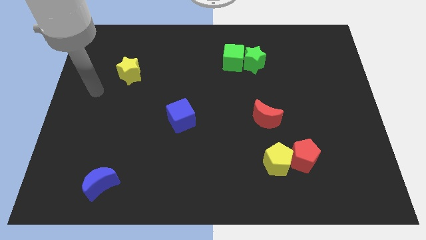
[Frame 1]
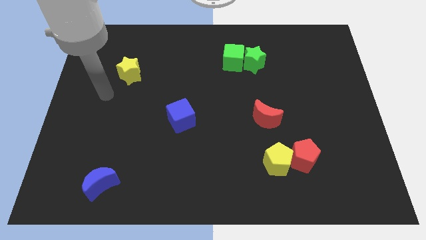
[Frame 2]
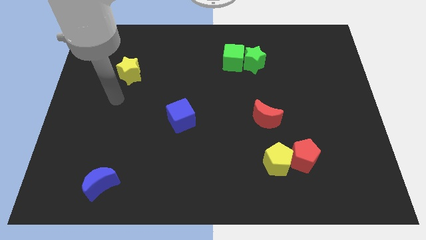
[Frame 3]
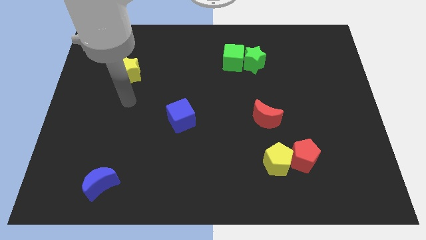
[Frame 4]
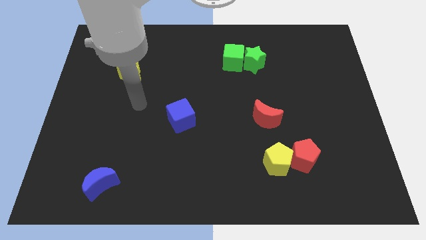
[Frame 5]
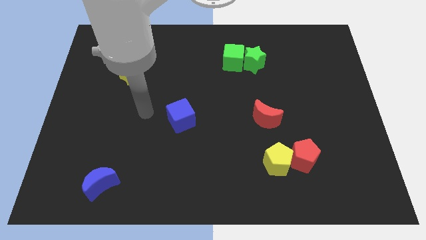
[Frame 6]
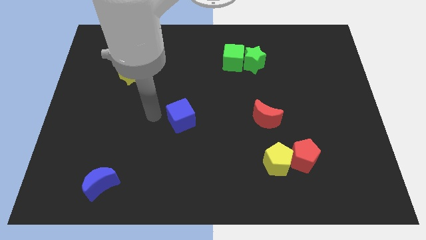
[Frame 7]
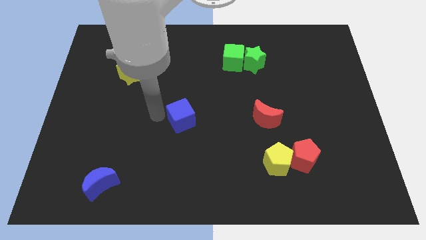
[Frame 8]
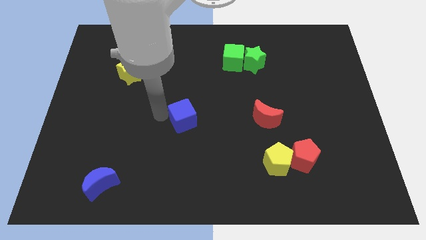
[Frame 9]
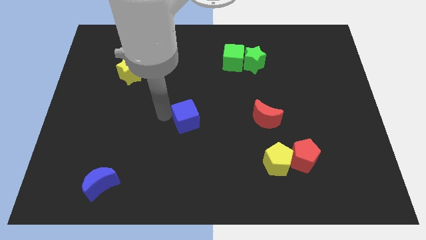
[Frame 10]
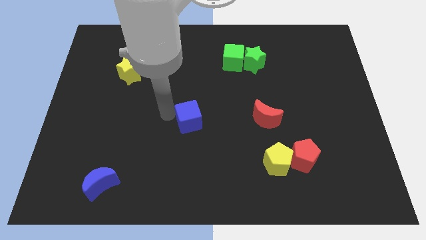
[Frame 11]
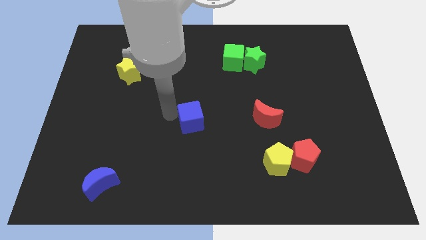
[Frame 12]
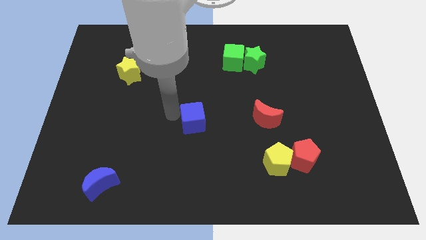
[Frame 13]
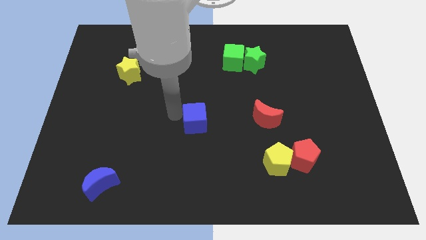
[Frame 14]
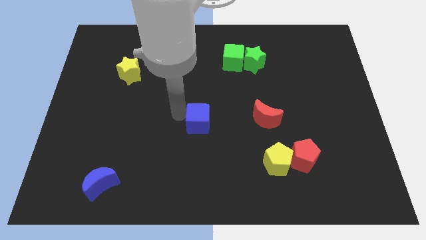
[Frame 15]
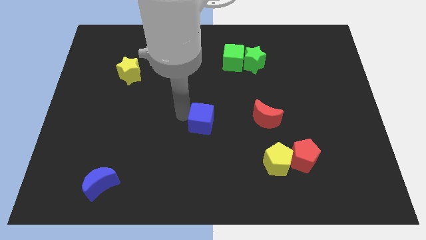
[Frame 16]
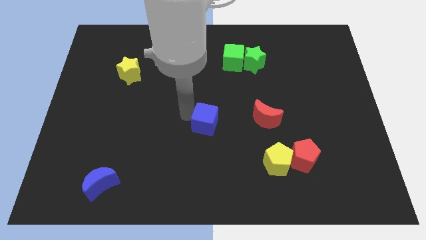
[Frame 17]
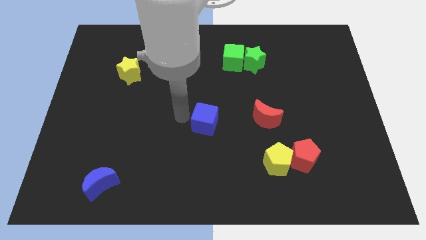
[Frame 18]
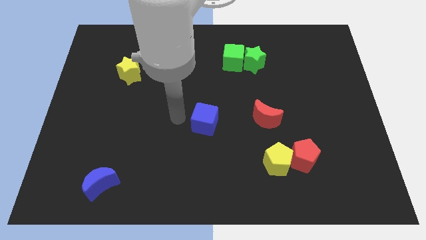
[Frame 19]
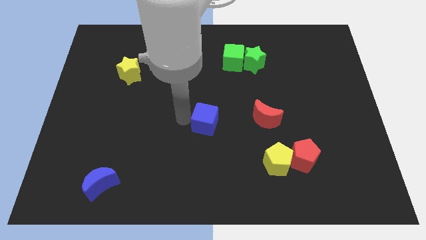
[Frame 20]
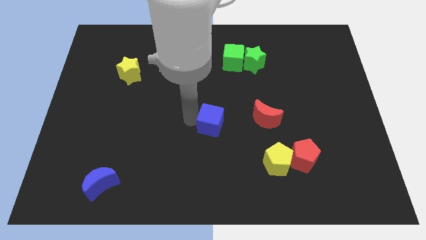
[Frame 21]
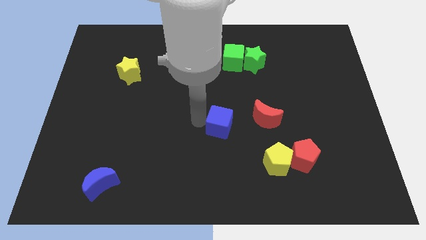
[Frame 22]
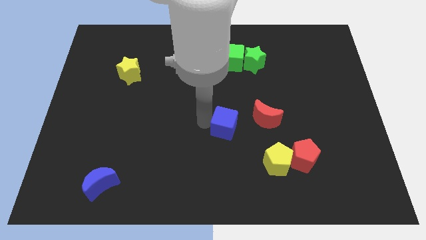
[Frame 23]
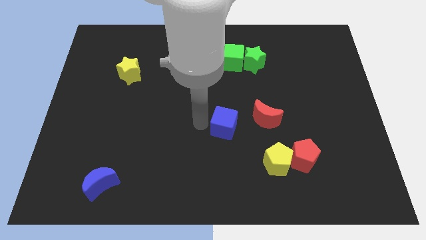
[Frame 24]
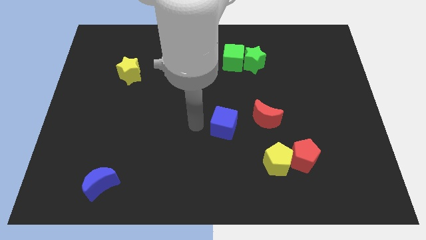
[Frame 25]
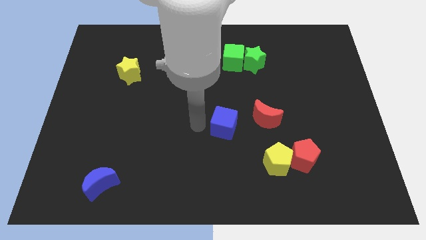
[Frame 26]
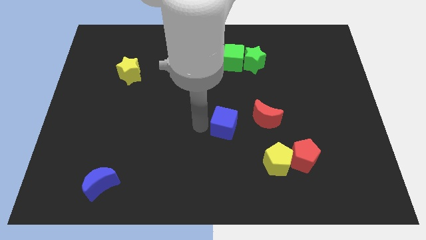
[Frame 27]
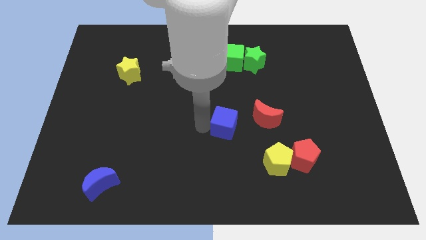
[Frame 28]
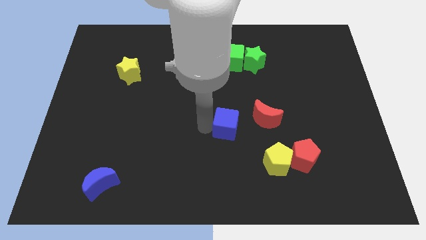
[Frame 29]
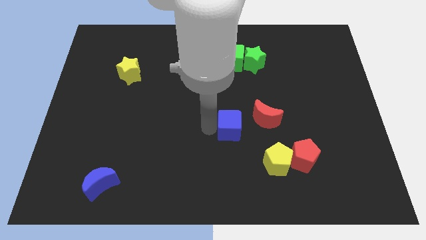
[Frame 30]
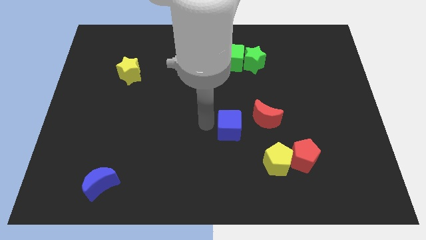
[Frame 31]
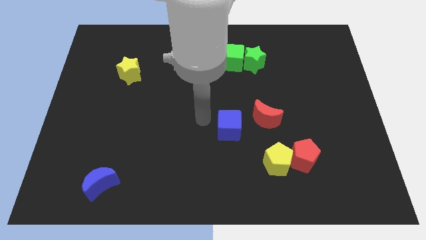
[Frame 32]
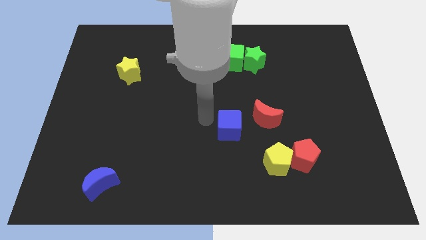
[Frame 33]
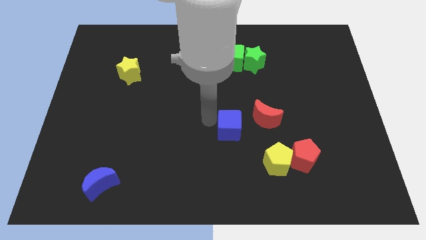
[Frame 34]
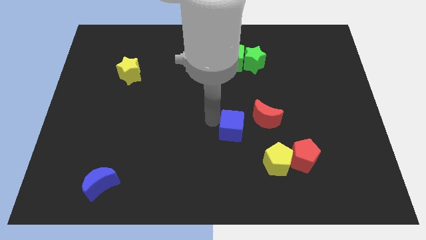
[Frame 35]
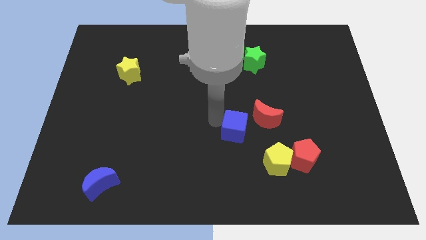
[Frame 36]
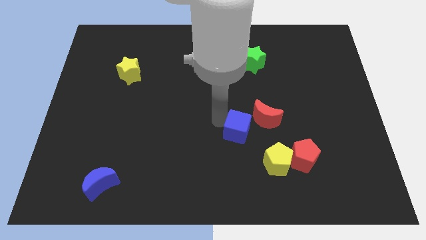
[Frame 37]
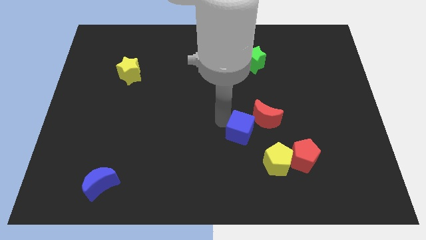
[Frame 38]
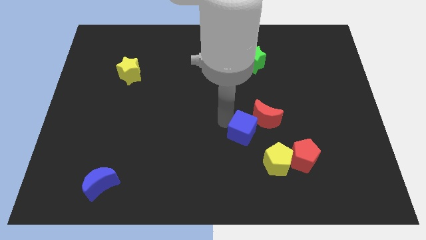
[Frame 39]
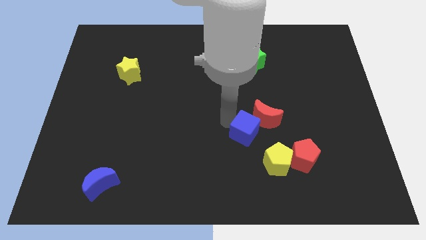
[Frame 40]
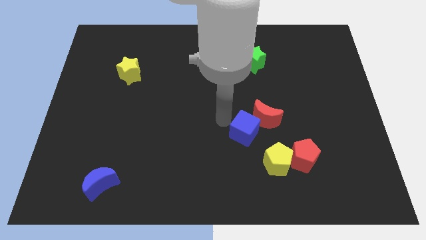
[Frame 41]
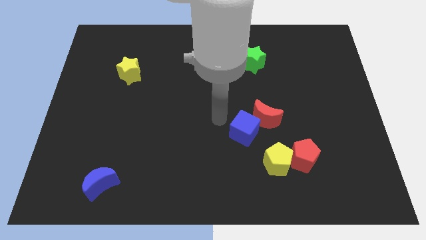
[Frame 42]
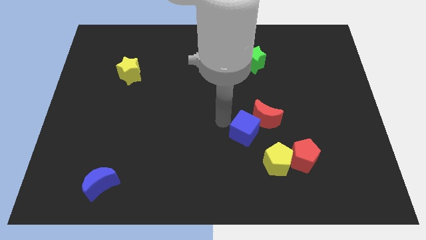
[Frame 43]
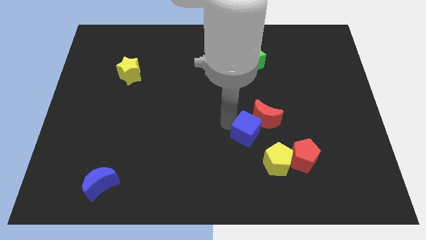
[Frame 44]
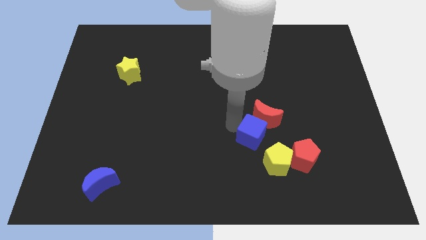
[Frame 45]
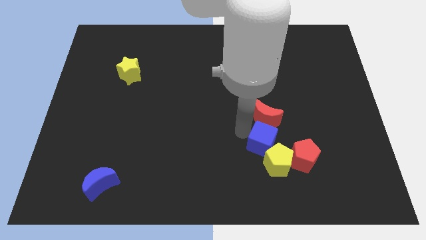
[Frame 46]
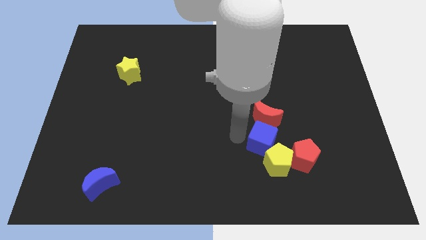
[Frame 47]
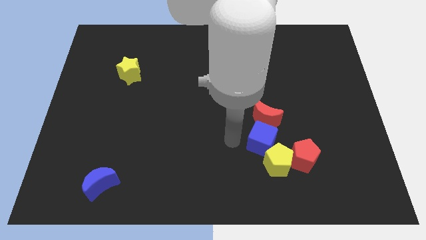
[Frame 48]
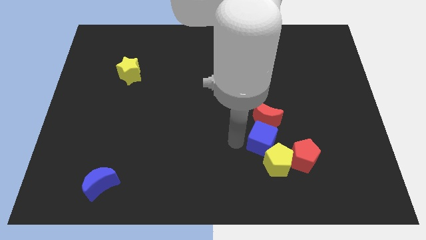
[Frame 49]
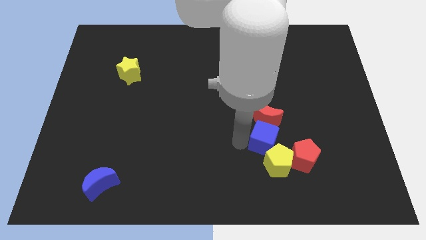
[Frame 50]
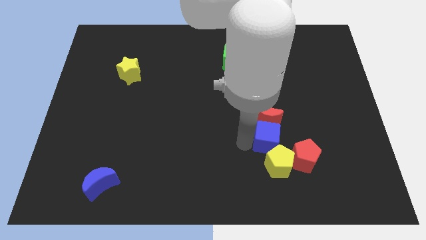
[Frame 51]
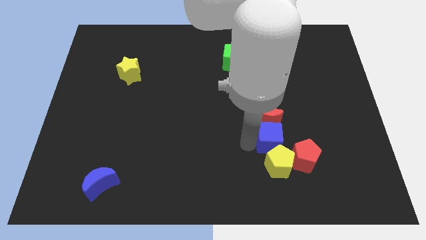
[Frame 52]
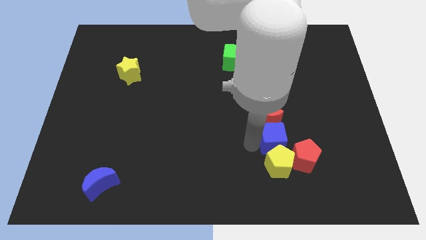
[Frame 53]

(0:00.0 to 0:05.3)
move the blue cube diagonally up and to the right of the yellow pentagon
